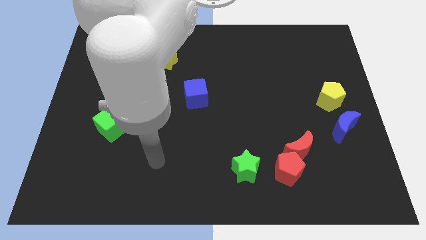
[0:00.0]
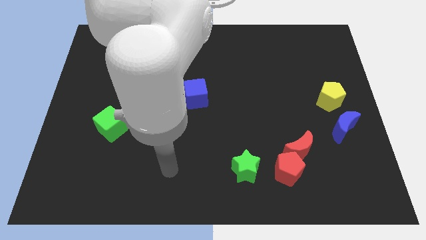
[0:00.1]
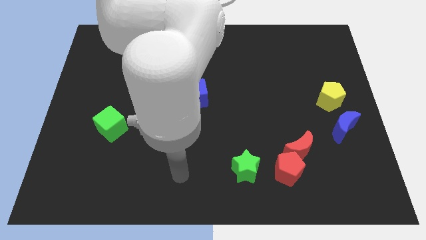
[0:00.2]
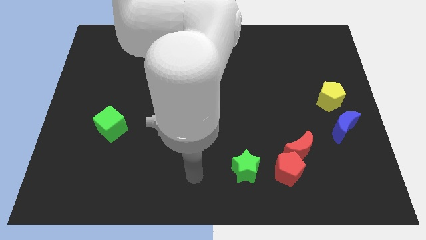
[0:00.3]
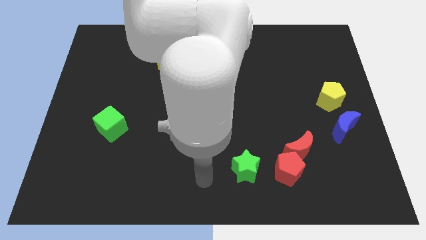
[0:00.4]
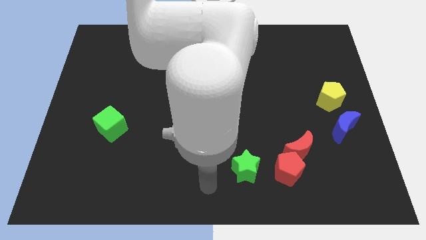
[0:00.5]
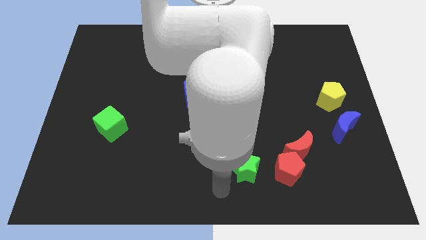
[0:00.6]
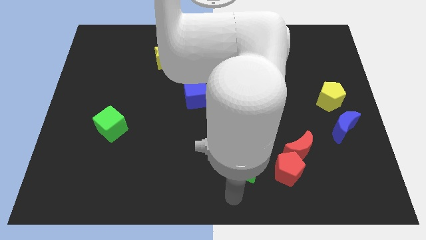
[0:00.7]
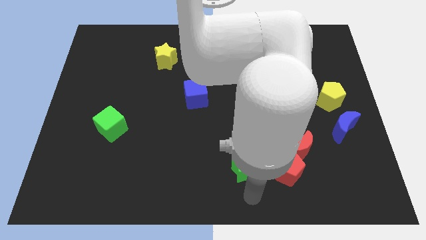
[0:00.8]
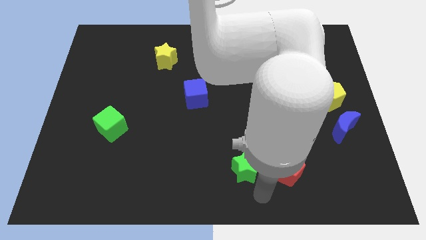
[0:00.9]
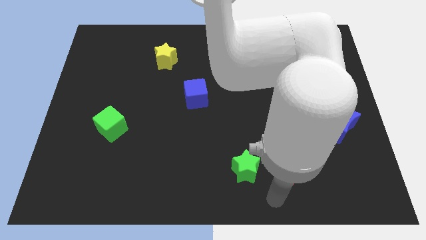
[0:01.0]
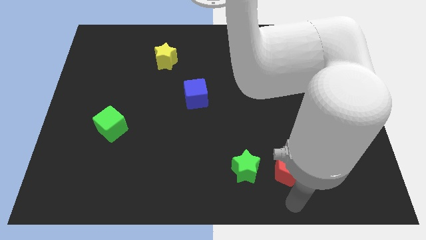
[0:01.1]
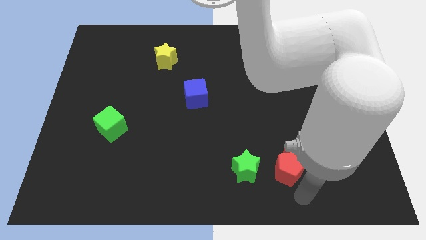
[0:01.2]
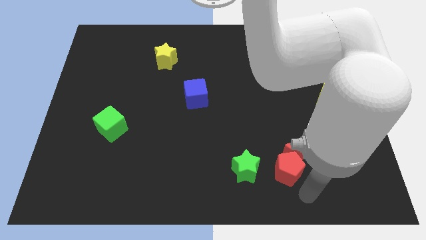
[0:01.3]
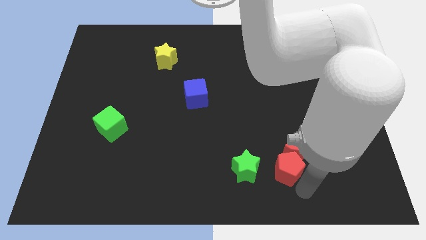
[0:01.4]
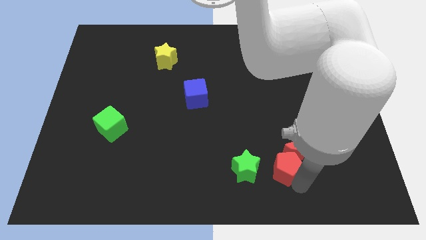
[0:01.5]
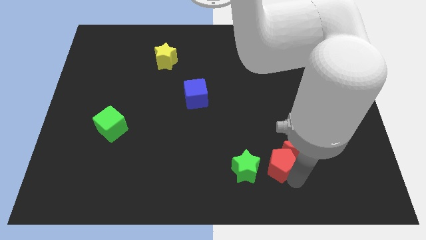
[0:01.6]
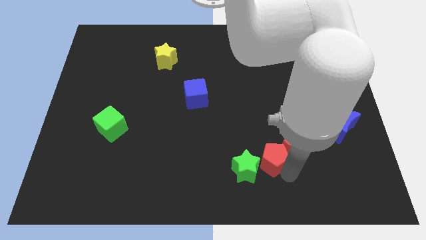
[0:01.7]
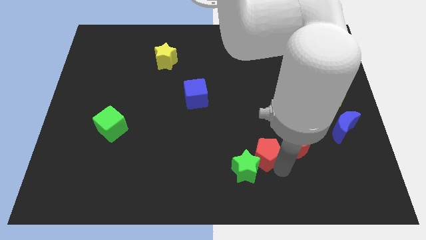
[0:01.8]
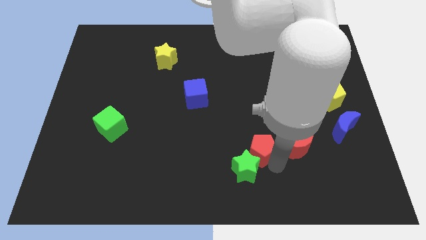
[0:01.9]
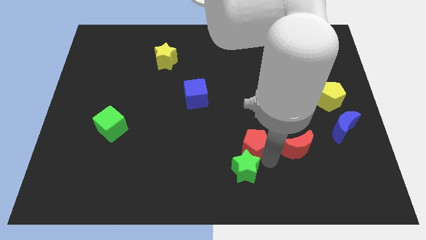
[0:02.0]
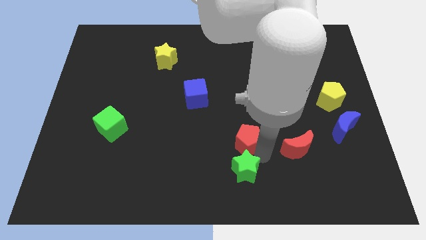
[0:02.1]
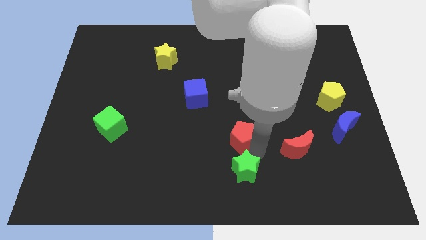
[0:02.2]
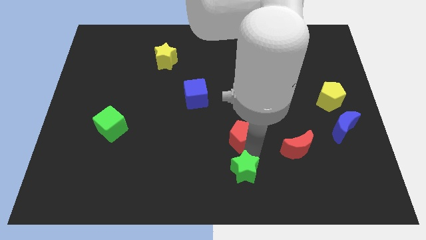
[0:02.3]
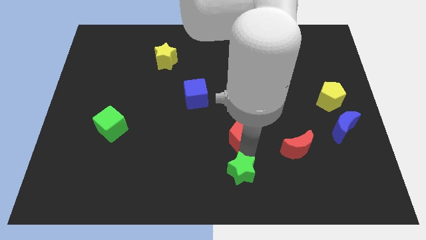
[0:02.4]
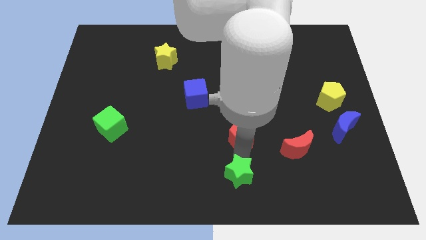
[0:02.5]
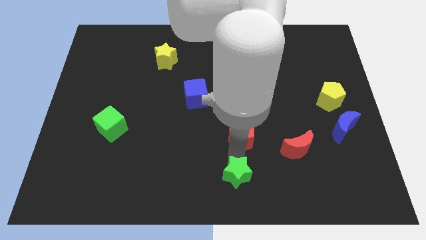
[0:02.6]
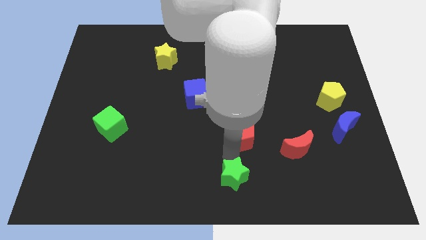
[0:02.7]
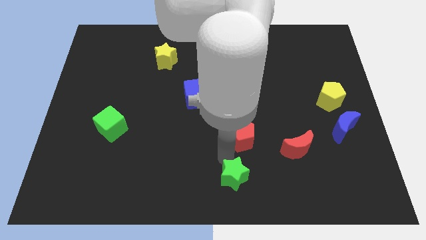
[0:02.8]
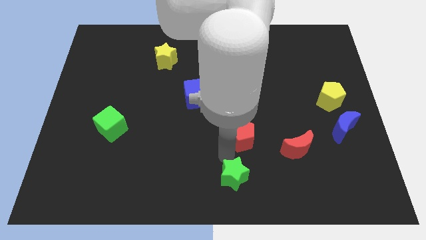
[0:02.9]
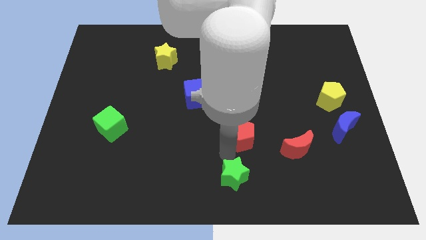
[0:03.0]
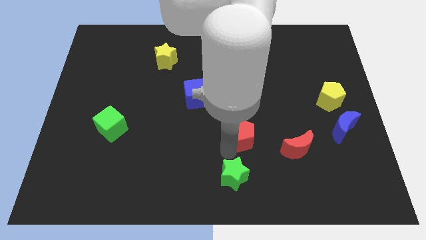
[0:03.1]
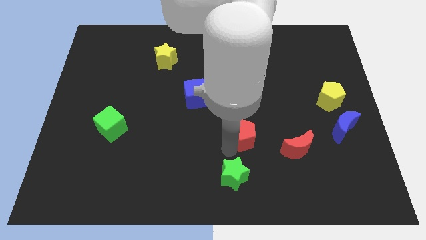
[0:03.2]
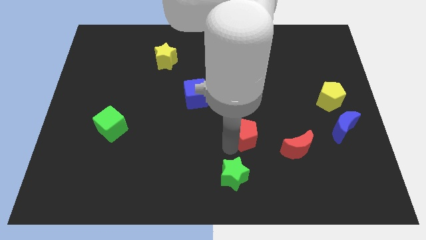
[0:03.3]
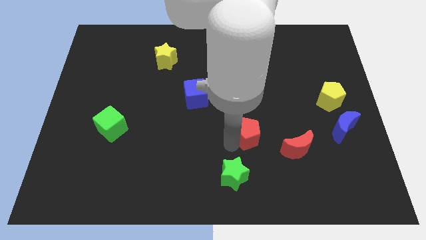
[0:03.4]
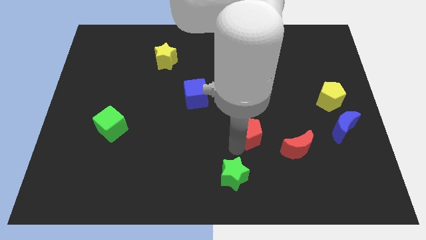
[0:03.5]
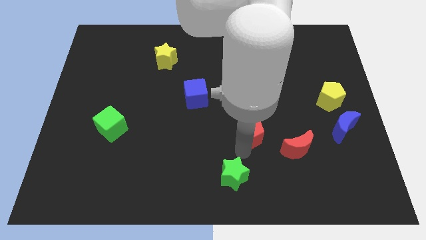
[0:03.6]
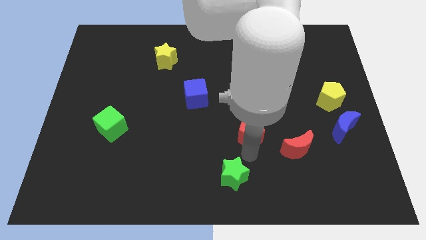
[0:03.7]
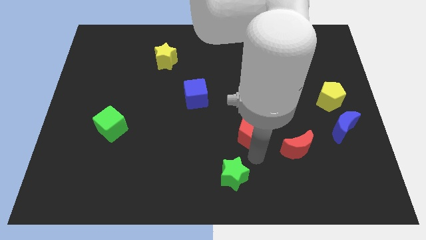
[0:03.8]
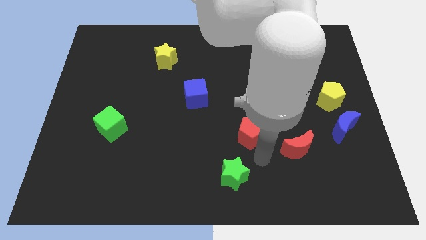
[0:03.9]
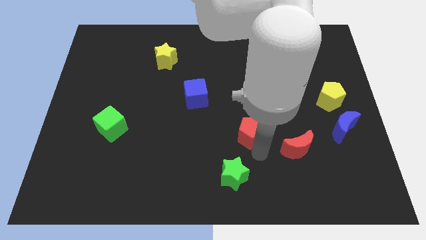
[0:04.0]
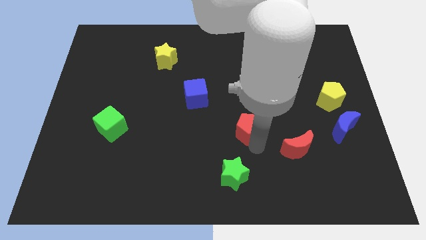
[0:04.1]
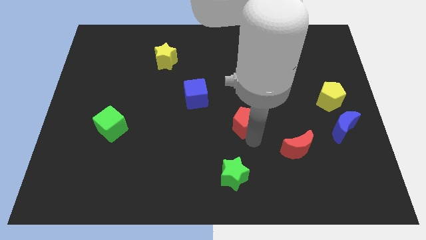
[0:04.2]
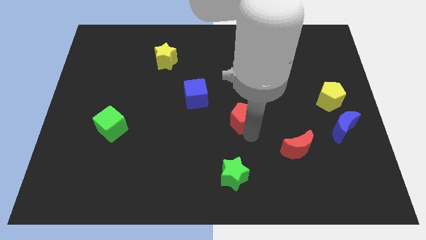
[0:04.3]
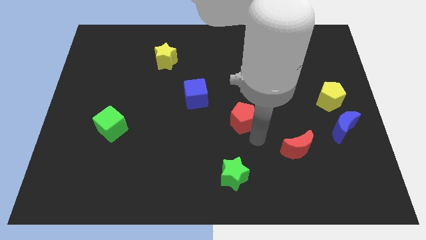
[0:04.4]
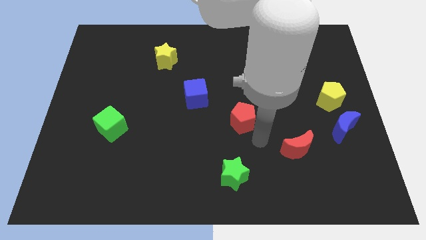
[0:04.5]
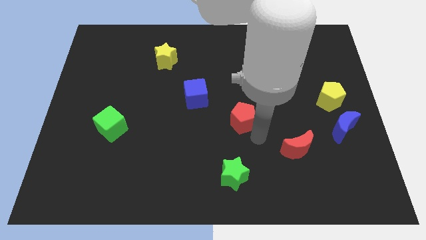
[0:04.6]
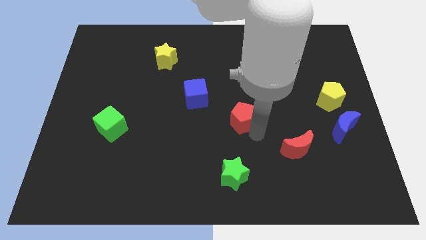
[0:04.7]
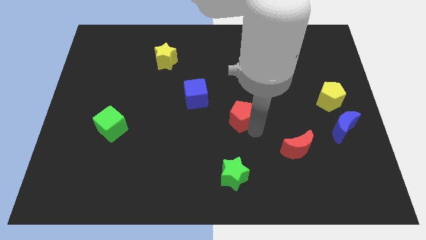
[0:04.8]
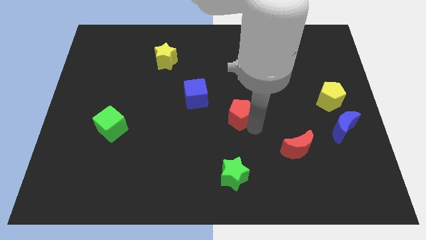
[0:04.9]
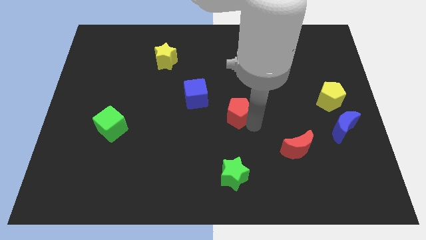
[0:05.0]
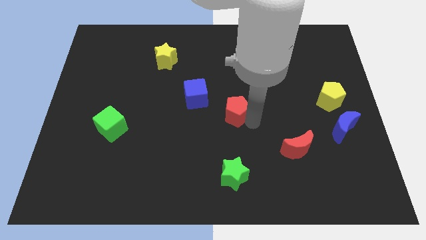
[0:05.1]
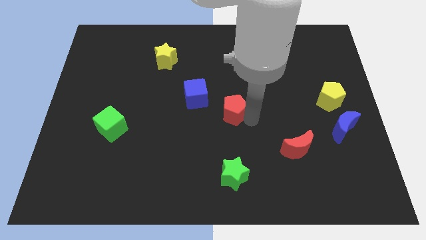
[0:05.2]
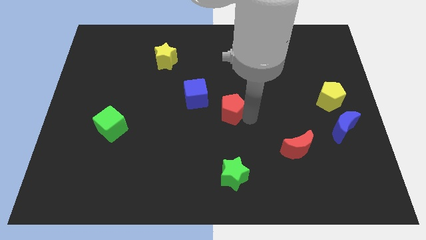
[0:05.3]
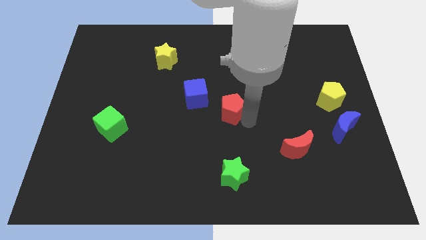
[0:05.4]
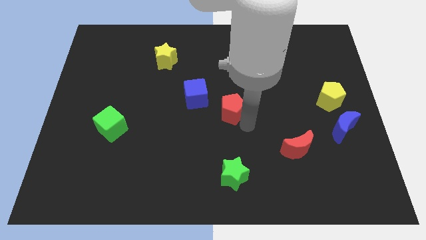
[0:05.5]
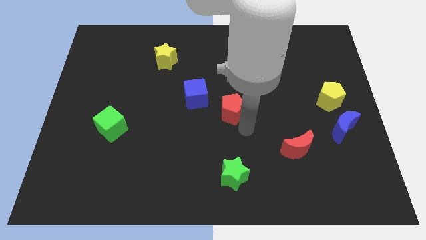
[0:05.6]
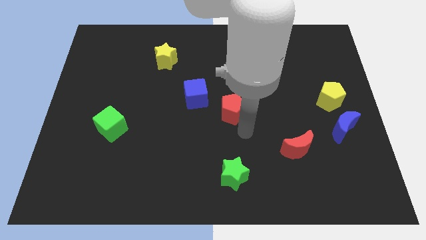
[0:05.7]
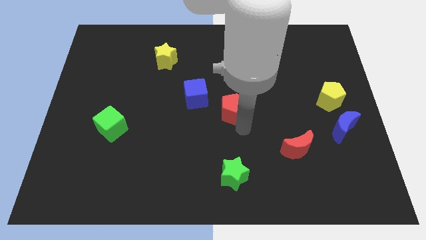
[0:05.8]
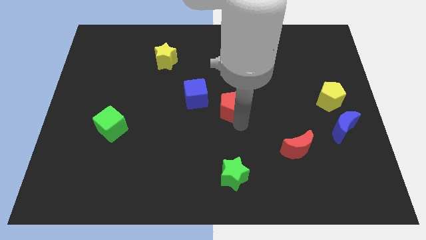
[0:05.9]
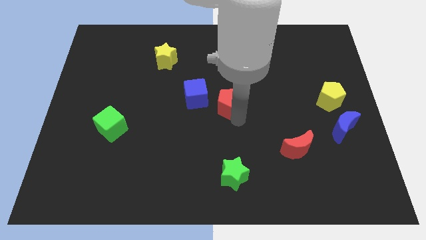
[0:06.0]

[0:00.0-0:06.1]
move the red pentagon diagonally upwards and to the left

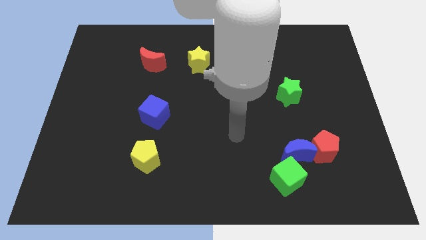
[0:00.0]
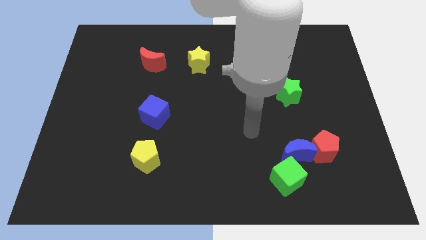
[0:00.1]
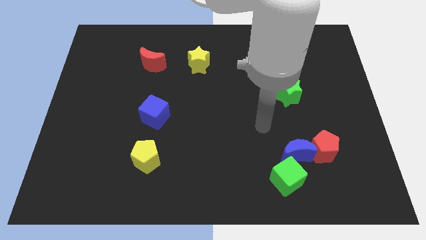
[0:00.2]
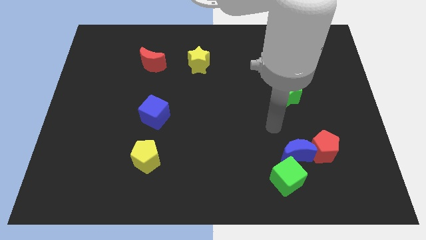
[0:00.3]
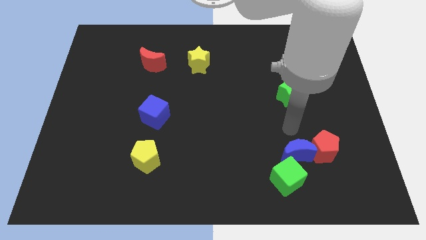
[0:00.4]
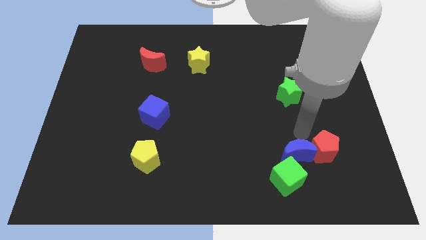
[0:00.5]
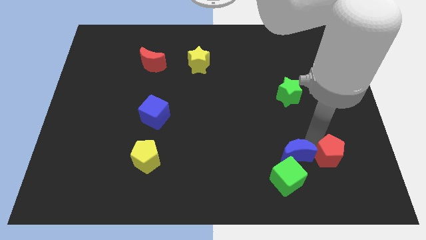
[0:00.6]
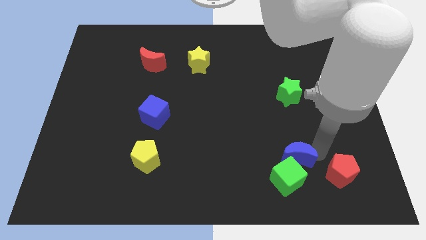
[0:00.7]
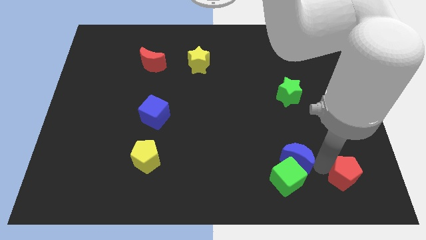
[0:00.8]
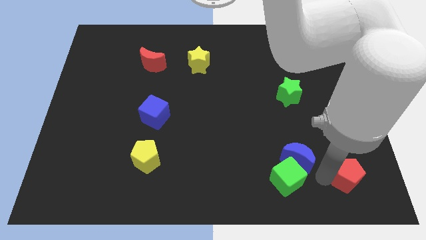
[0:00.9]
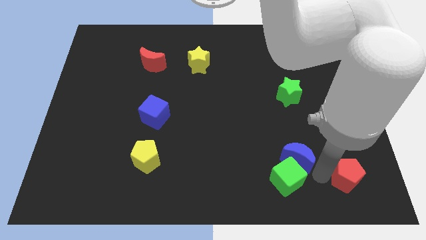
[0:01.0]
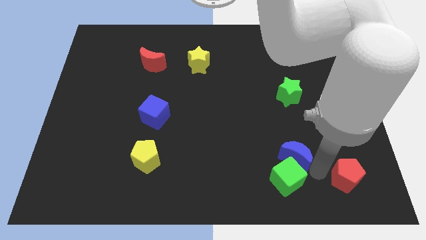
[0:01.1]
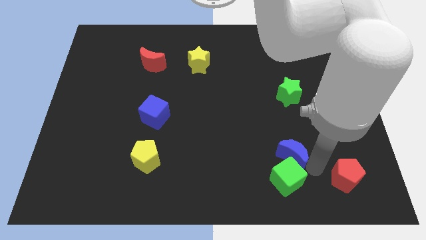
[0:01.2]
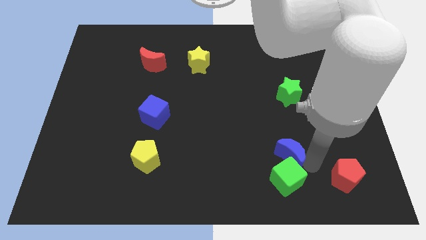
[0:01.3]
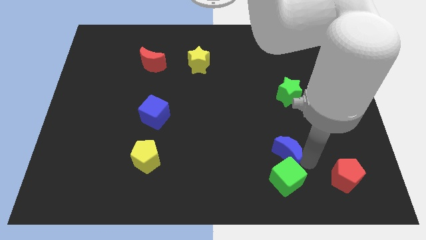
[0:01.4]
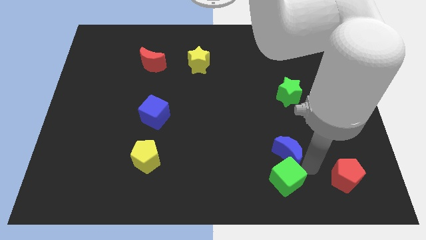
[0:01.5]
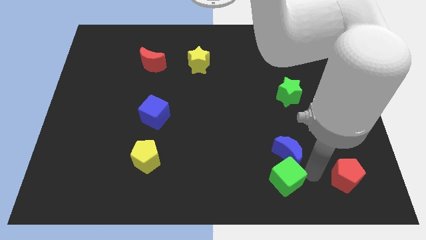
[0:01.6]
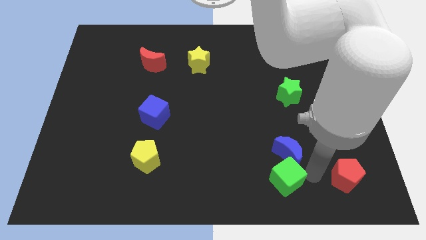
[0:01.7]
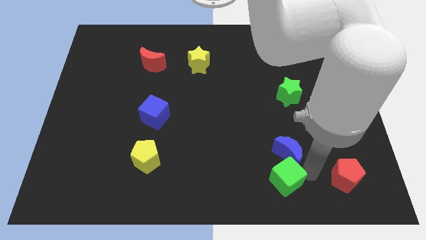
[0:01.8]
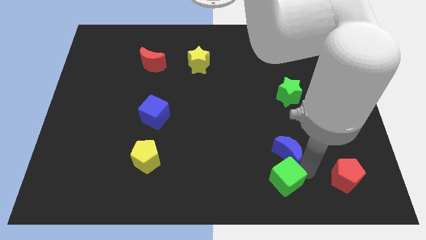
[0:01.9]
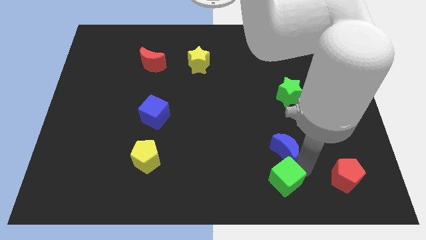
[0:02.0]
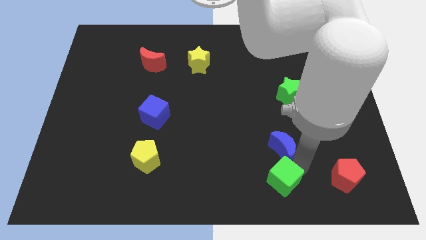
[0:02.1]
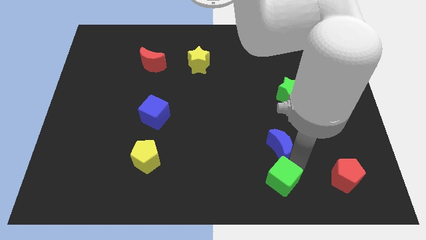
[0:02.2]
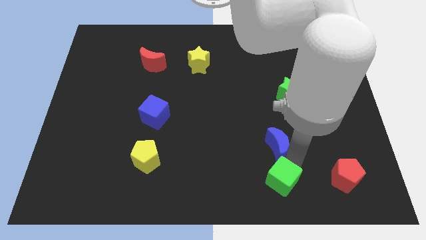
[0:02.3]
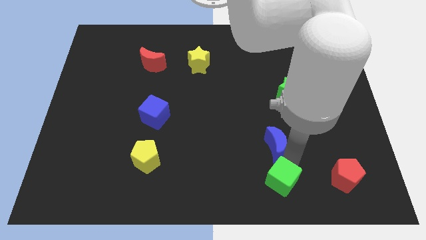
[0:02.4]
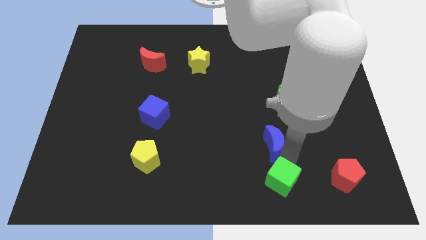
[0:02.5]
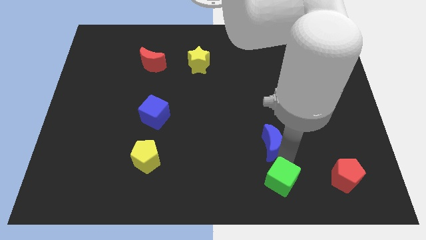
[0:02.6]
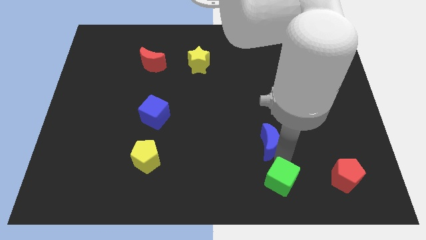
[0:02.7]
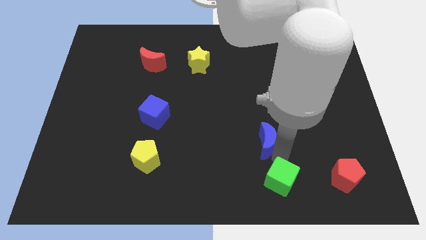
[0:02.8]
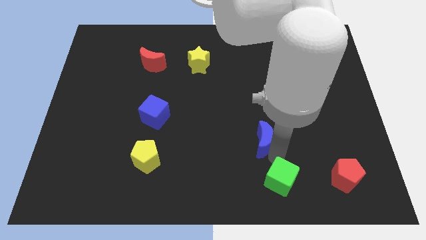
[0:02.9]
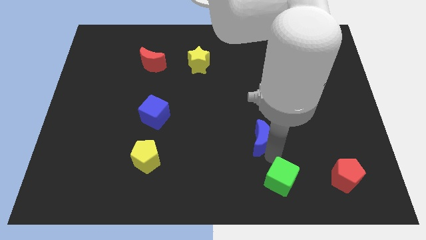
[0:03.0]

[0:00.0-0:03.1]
slide the blue moon a bit diagonally up and to the left
